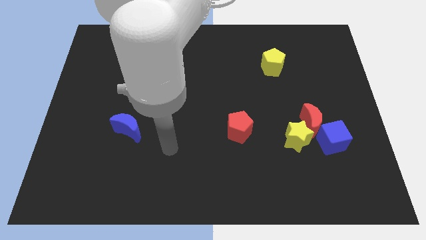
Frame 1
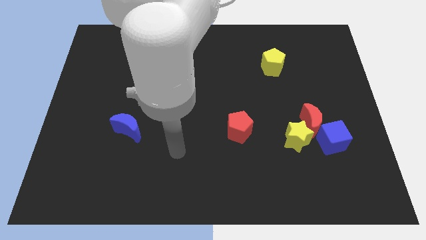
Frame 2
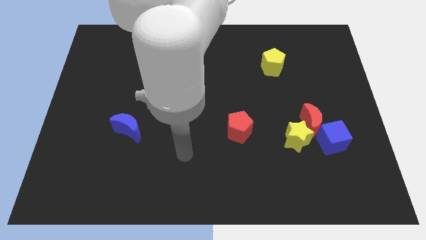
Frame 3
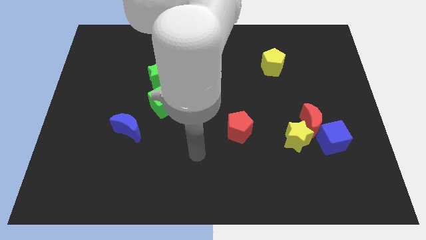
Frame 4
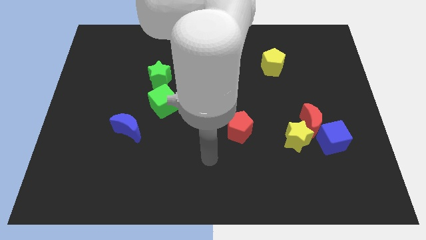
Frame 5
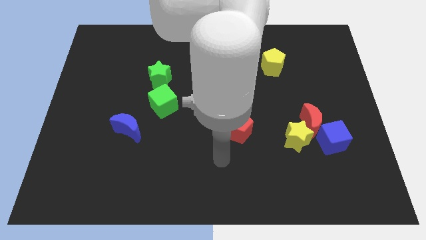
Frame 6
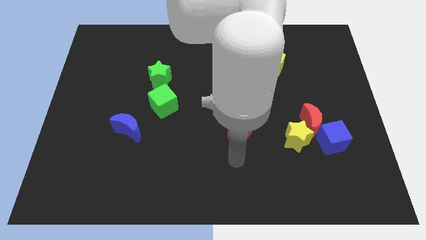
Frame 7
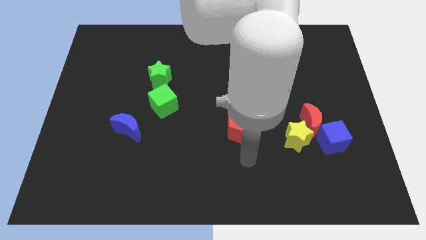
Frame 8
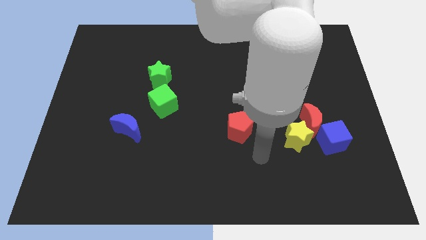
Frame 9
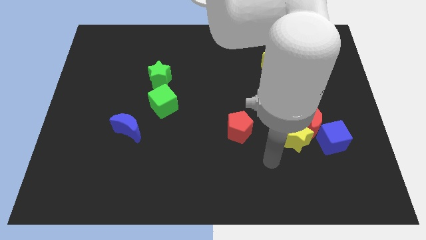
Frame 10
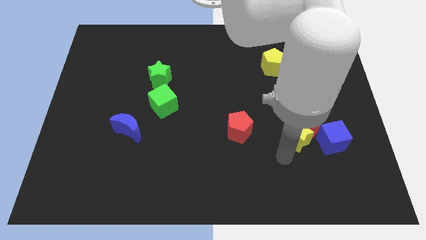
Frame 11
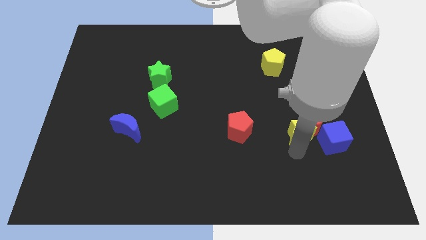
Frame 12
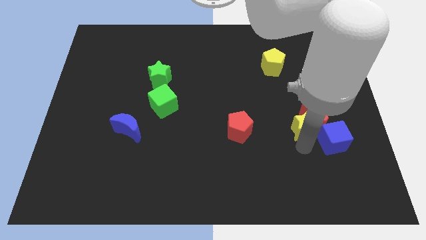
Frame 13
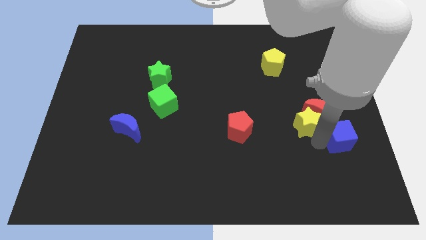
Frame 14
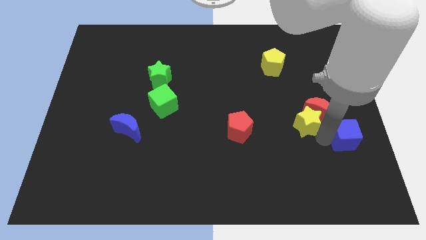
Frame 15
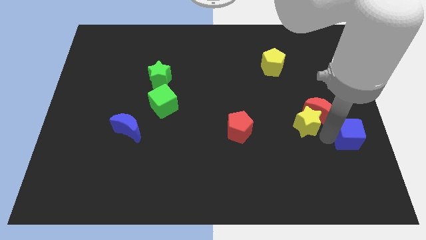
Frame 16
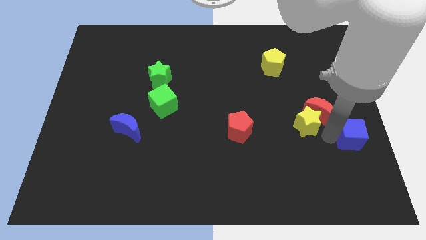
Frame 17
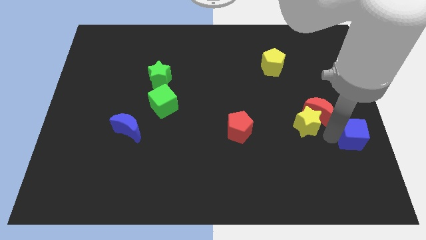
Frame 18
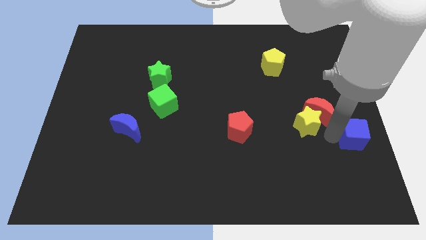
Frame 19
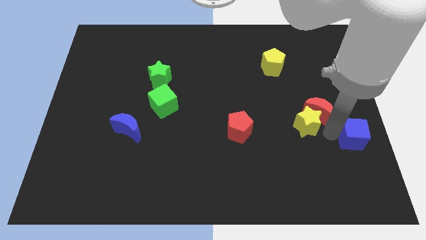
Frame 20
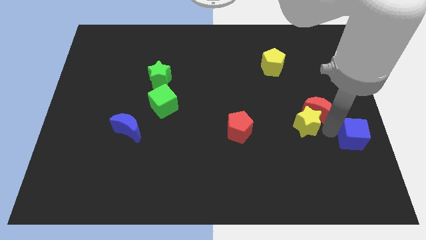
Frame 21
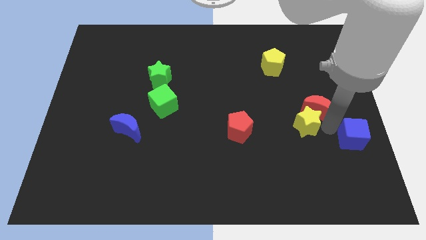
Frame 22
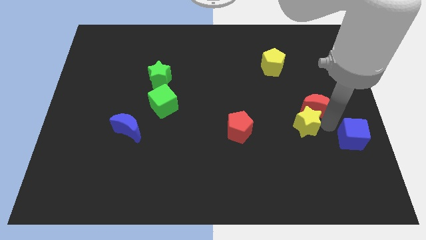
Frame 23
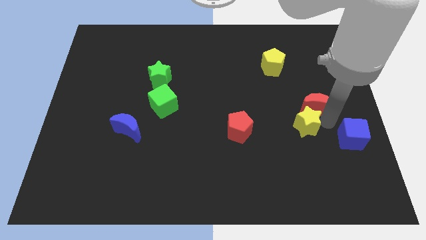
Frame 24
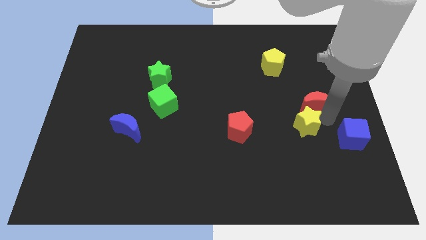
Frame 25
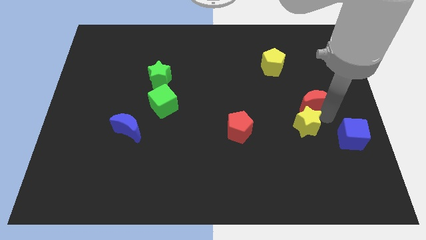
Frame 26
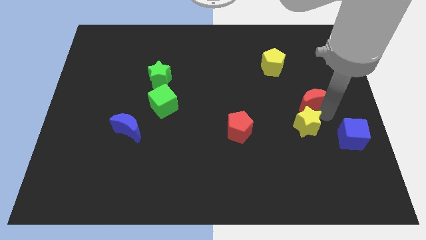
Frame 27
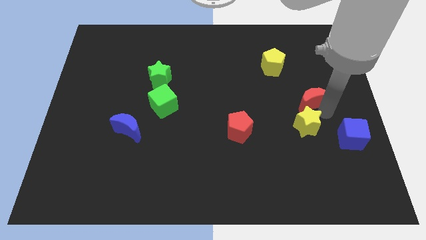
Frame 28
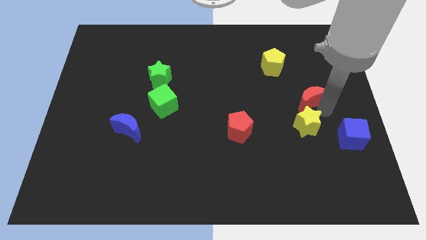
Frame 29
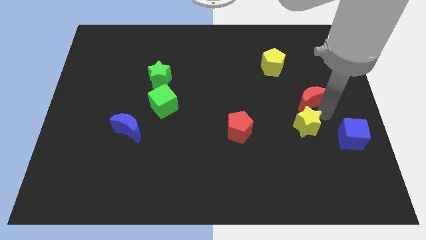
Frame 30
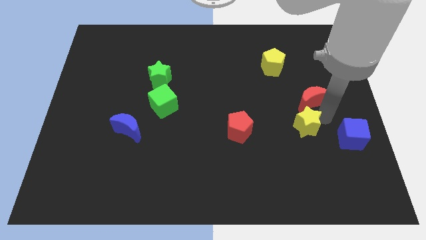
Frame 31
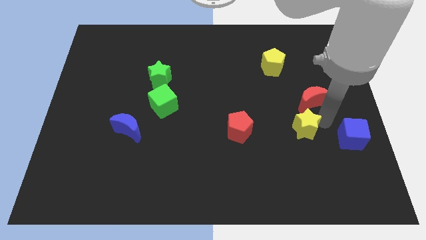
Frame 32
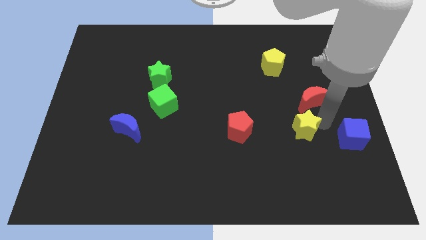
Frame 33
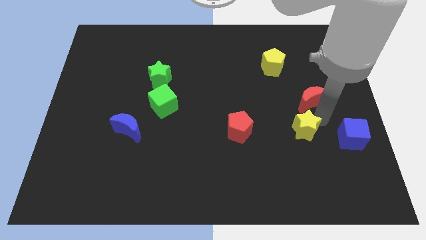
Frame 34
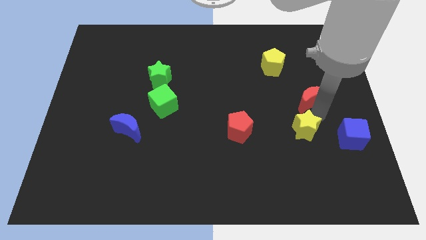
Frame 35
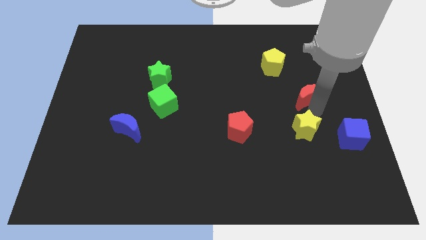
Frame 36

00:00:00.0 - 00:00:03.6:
pull the red moon apart from the yellow star and blue cube

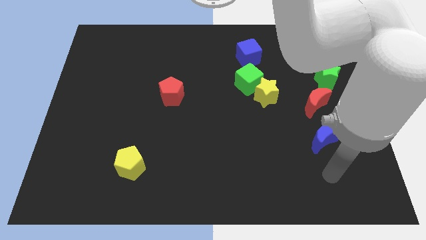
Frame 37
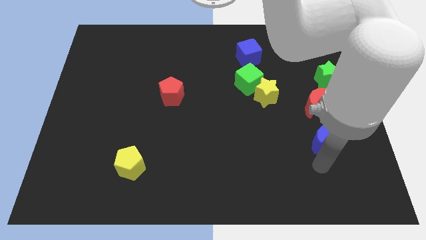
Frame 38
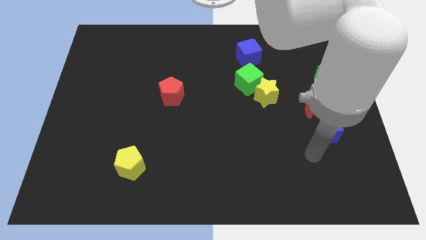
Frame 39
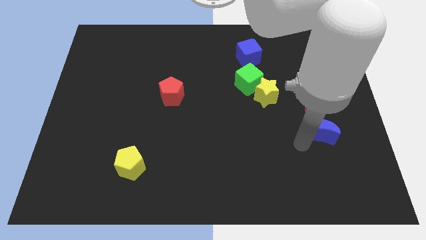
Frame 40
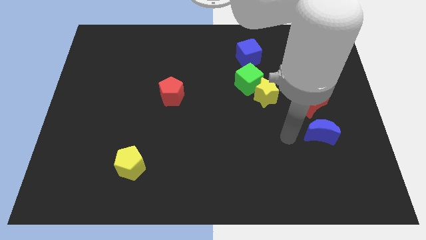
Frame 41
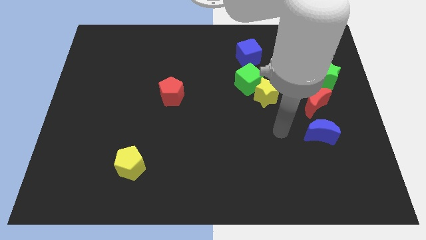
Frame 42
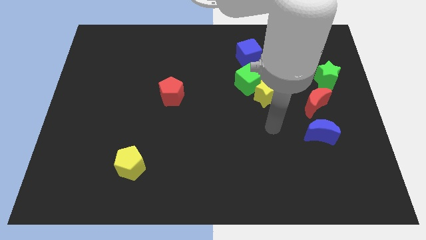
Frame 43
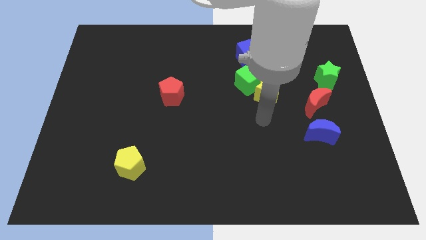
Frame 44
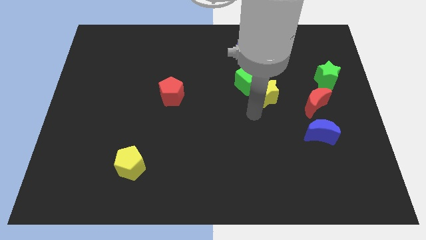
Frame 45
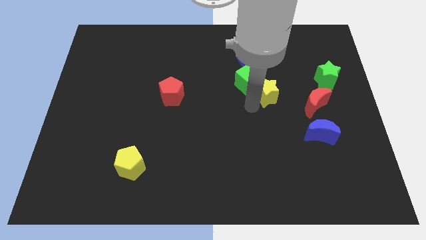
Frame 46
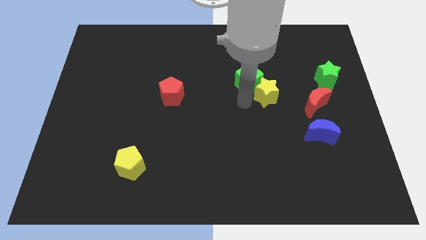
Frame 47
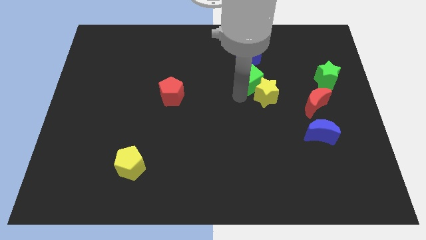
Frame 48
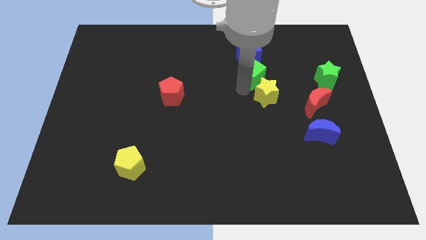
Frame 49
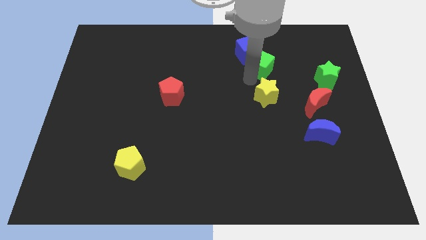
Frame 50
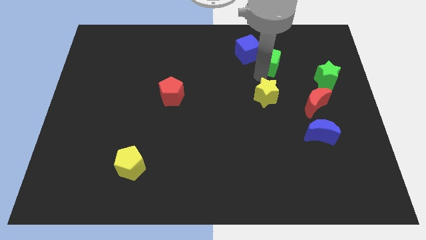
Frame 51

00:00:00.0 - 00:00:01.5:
move the yellow star away from the green cube

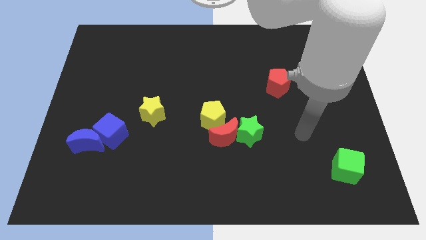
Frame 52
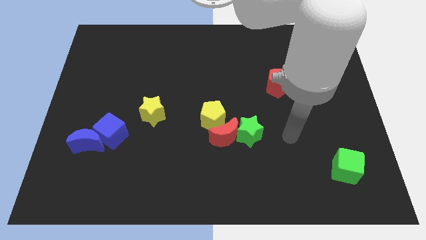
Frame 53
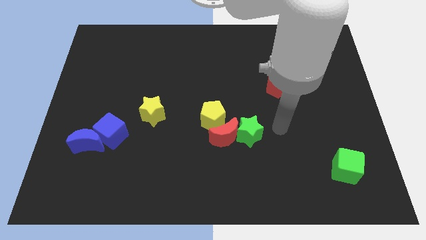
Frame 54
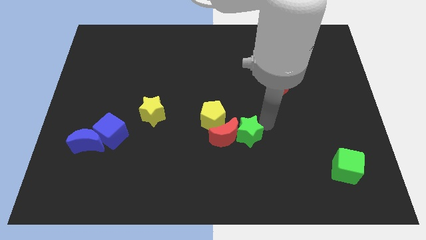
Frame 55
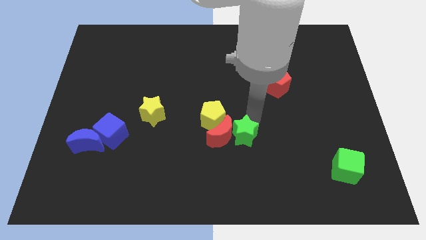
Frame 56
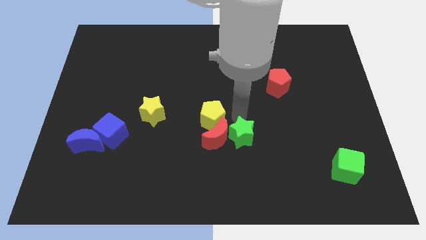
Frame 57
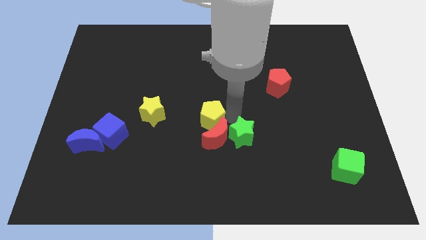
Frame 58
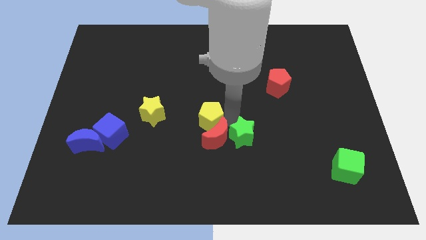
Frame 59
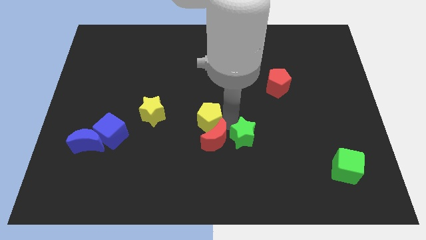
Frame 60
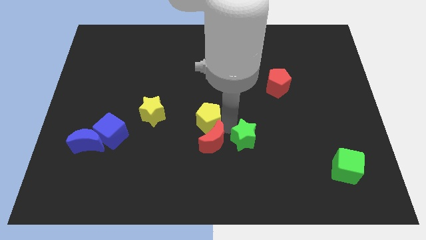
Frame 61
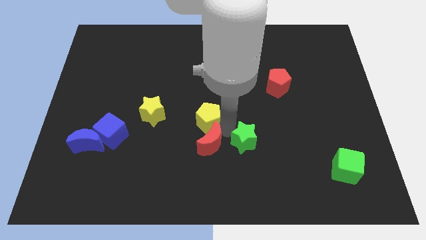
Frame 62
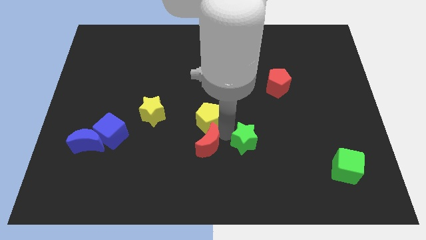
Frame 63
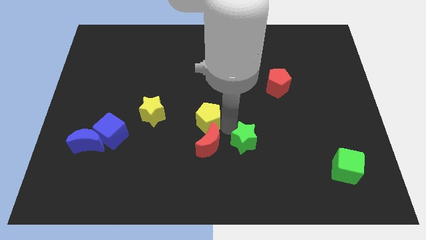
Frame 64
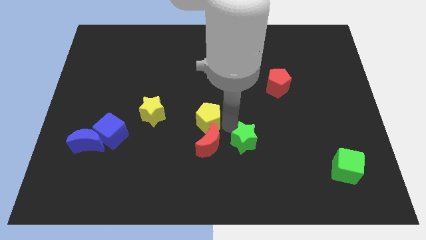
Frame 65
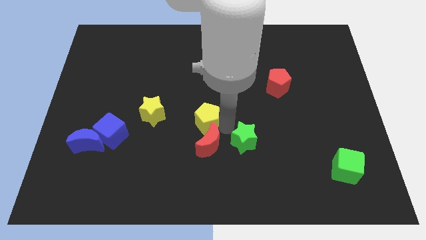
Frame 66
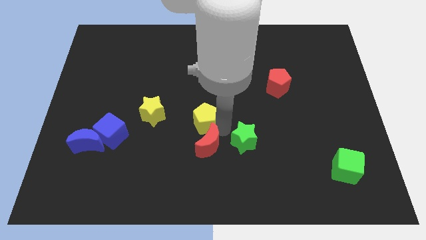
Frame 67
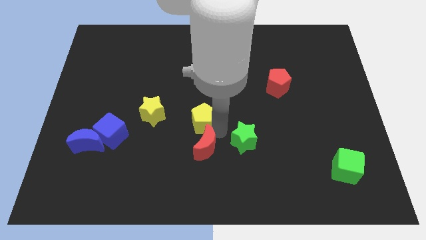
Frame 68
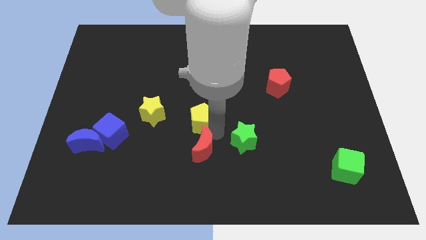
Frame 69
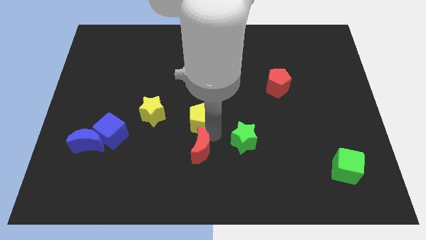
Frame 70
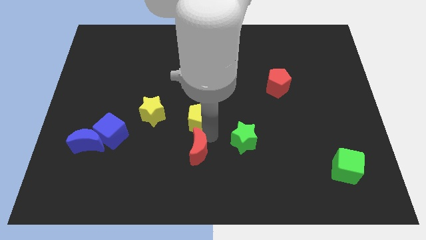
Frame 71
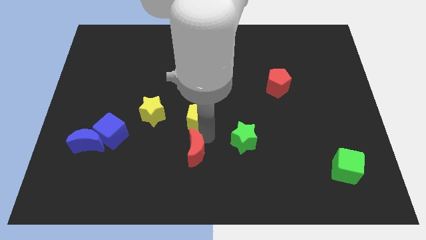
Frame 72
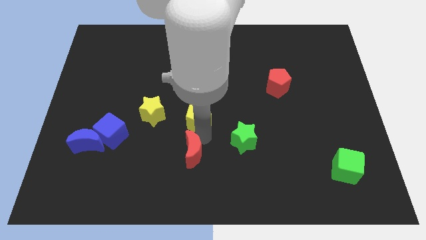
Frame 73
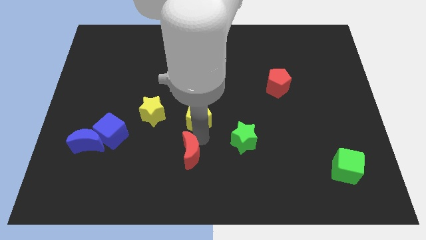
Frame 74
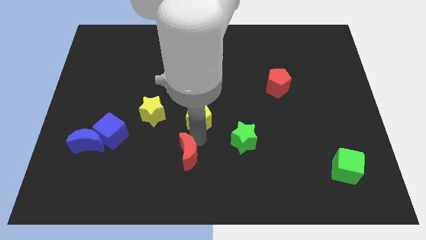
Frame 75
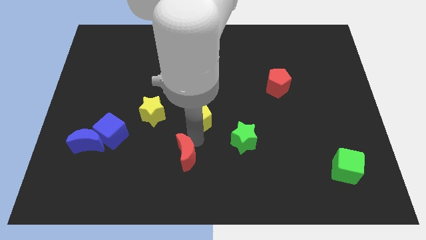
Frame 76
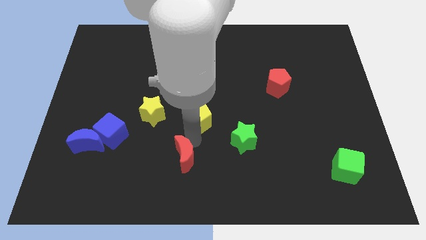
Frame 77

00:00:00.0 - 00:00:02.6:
move the red moon away from the green star and yellow pentagon

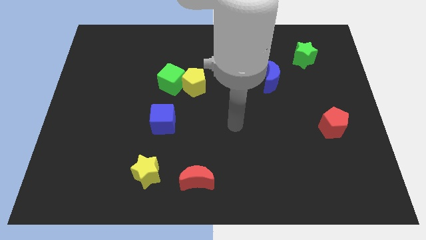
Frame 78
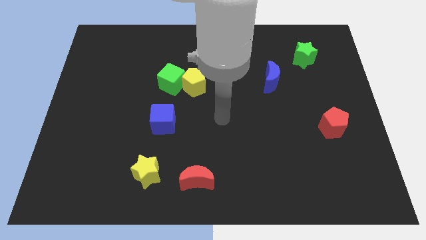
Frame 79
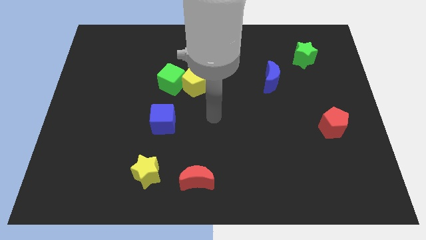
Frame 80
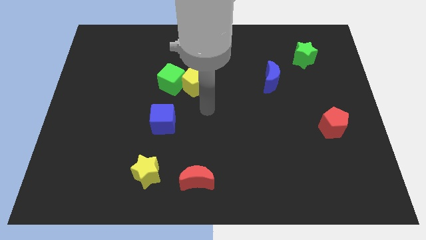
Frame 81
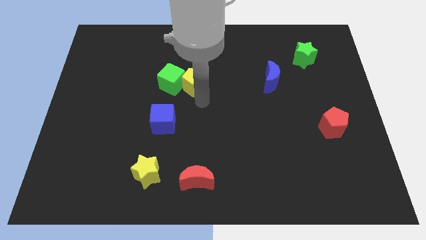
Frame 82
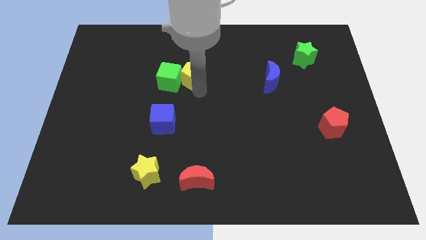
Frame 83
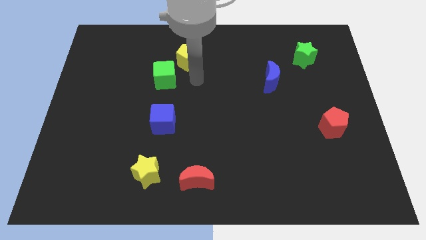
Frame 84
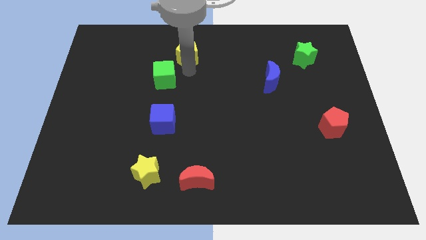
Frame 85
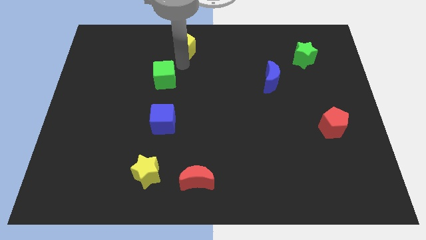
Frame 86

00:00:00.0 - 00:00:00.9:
separate the green cube from the yellow pentagon

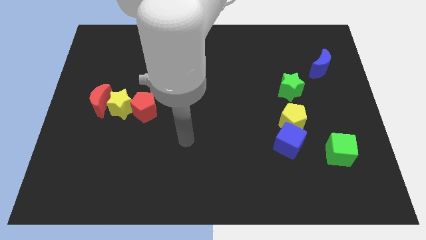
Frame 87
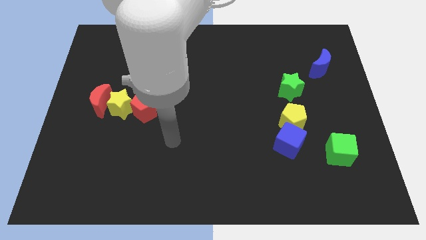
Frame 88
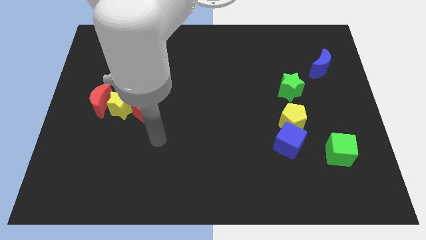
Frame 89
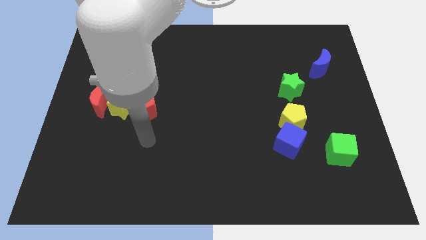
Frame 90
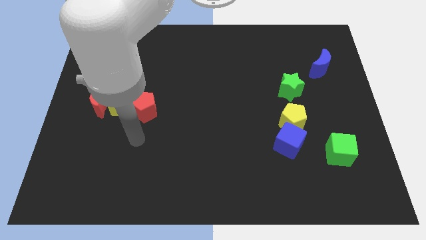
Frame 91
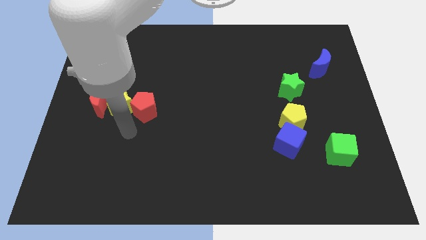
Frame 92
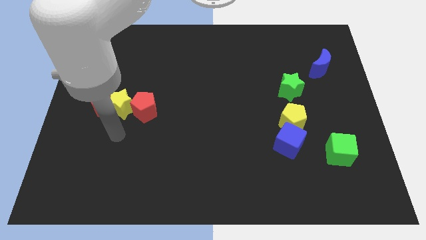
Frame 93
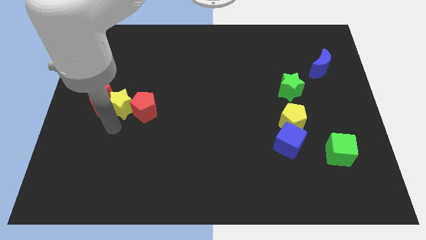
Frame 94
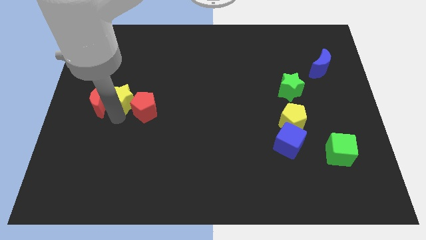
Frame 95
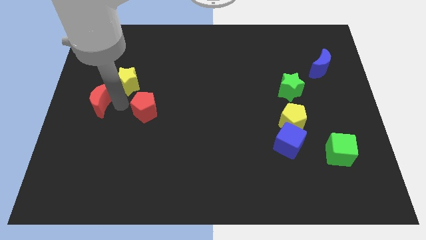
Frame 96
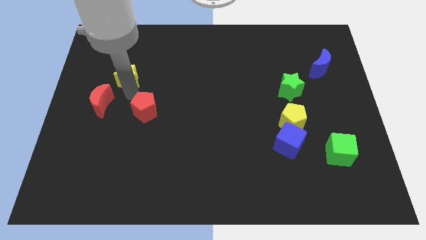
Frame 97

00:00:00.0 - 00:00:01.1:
separate the red pentagon from the yellow star
